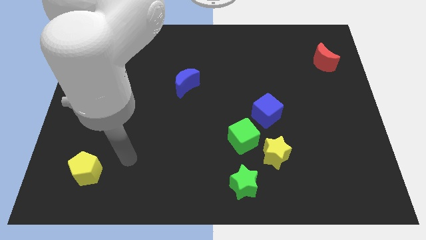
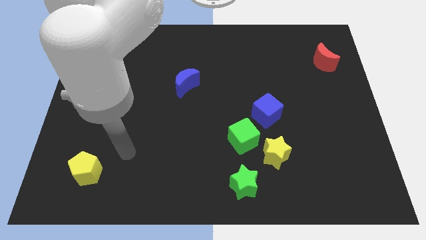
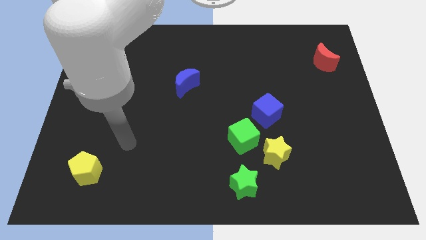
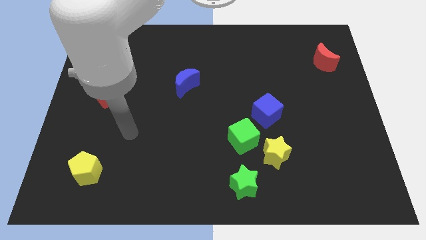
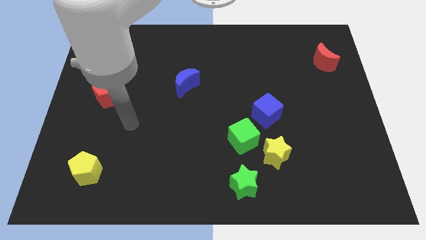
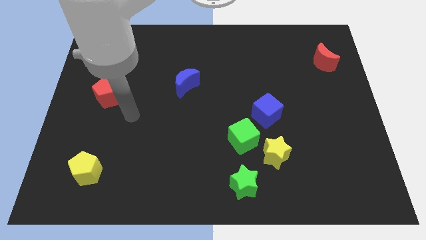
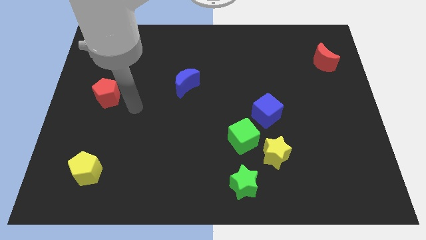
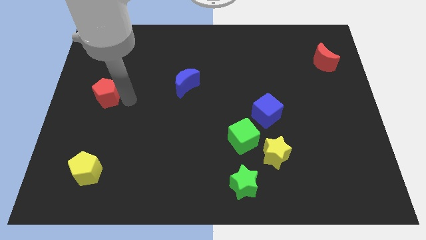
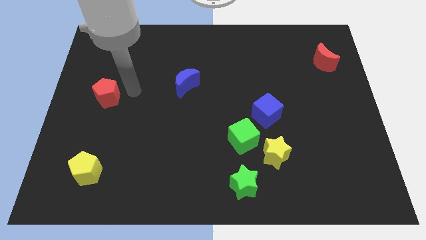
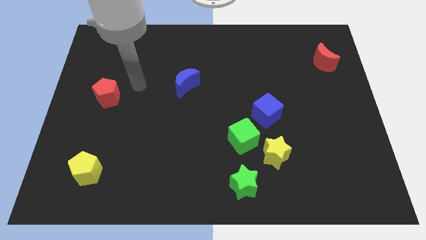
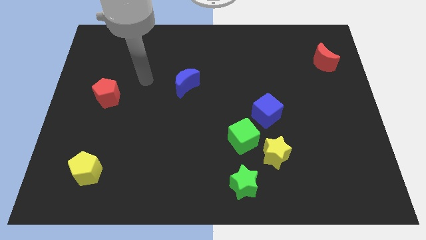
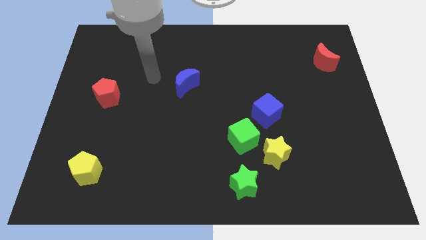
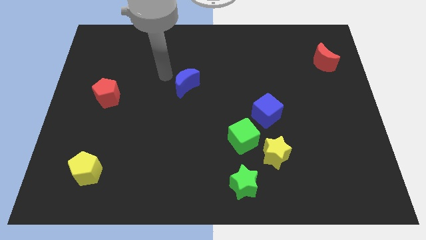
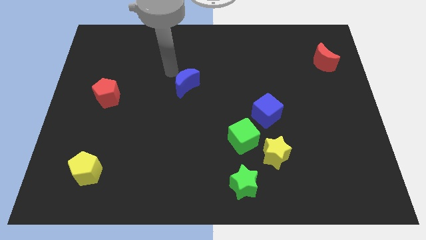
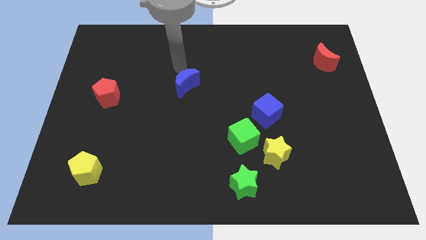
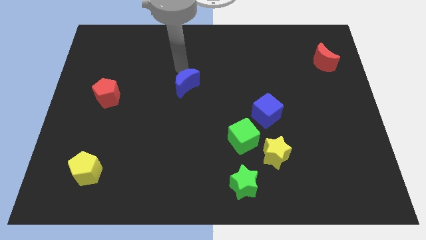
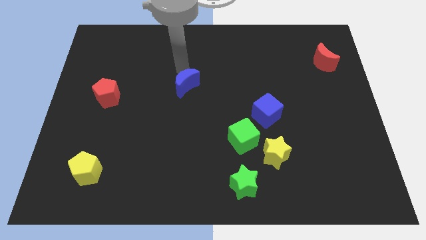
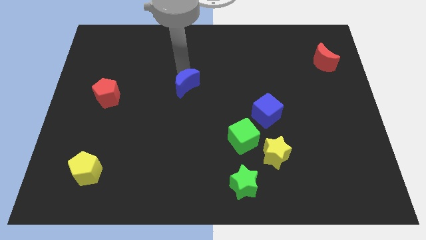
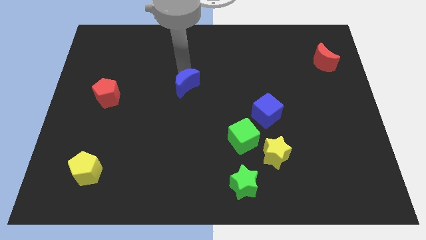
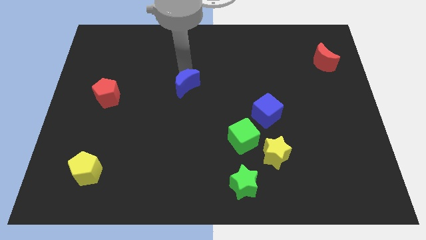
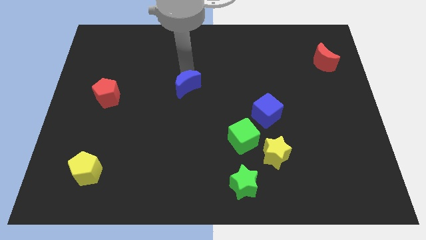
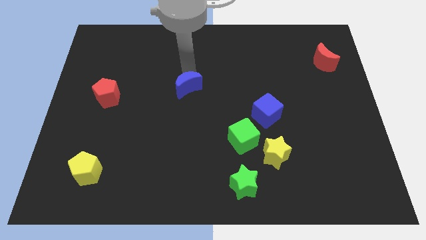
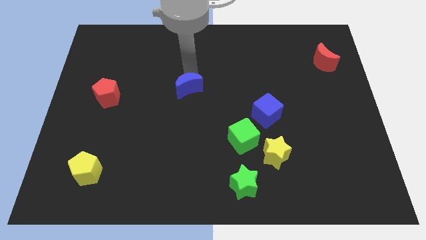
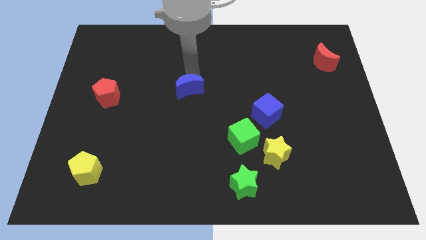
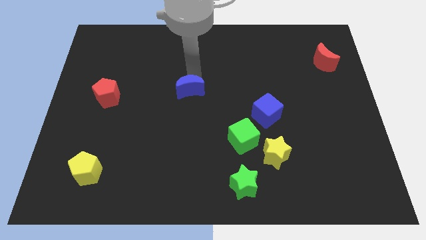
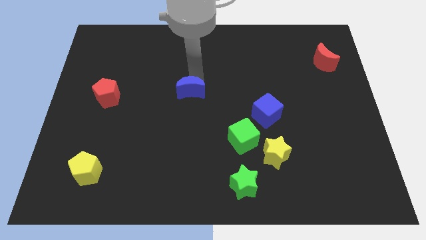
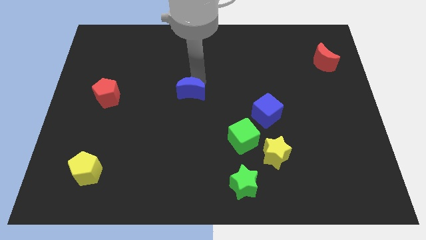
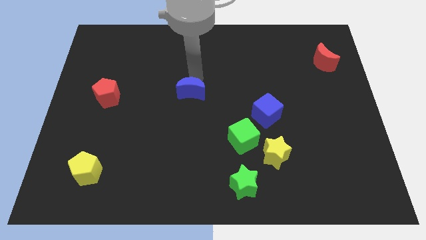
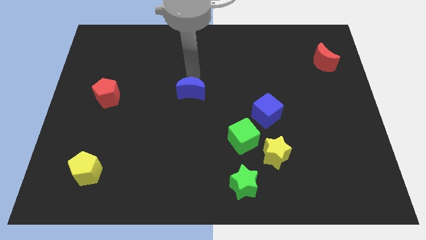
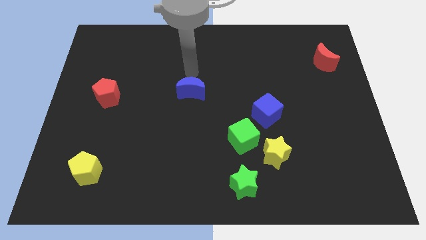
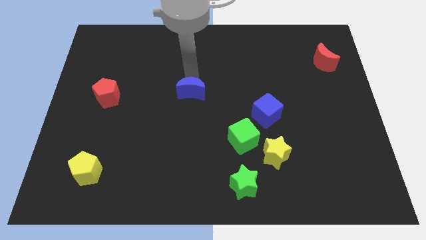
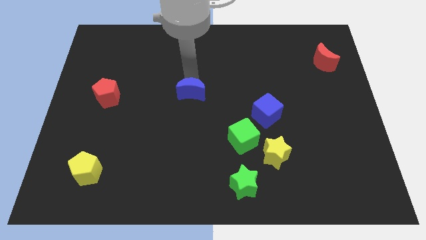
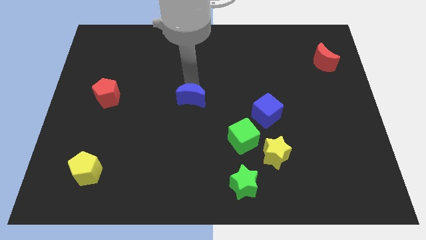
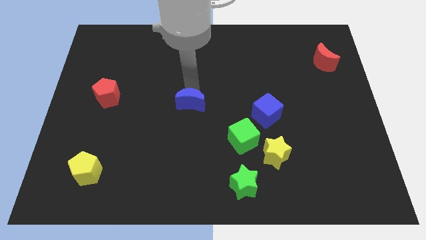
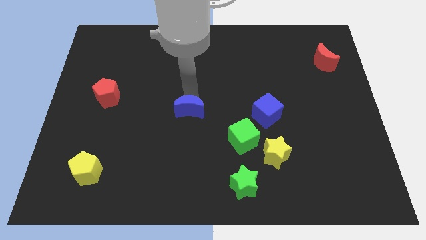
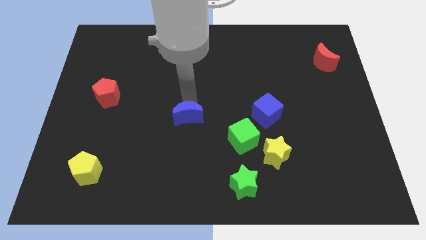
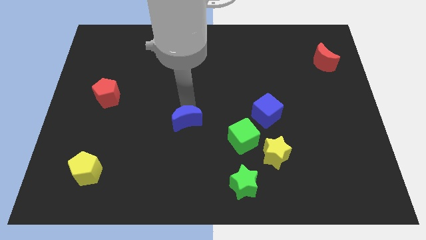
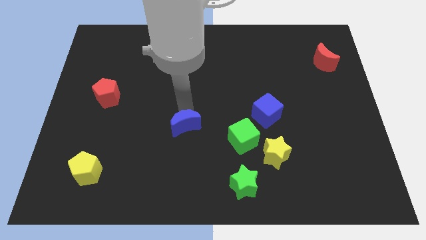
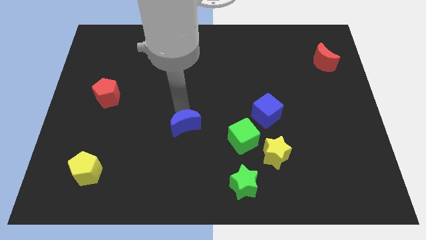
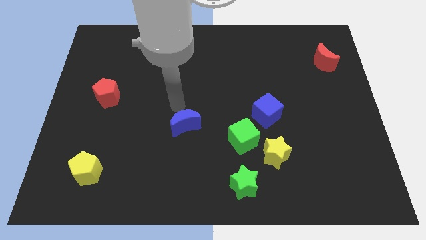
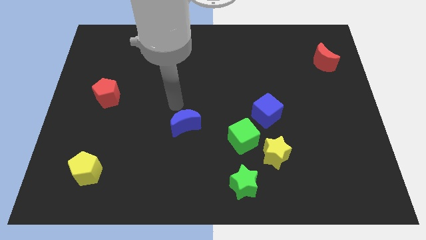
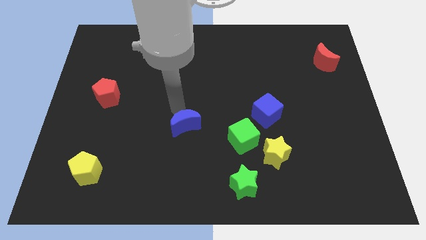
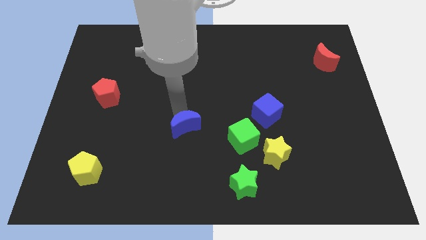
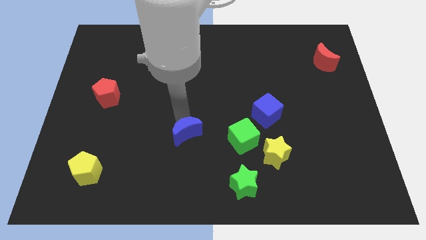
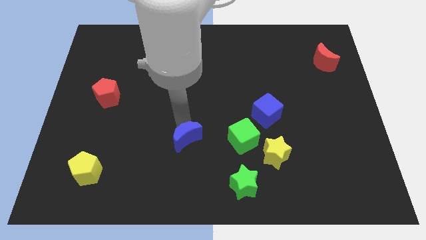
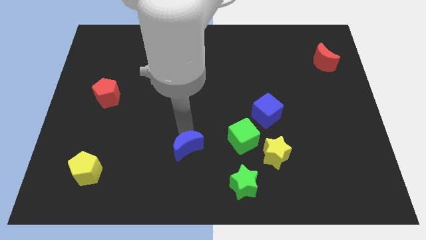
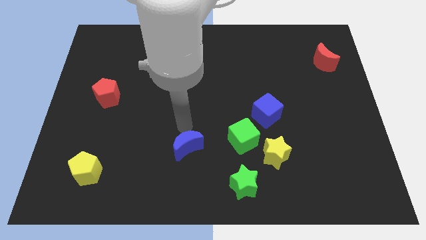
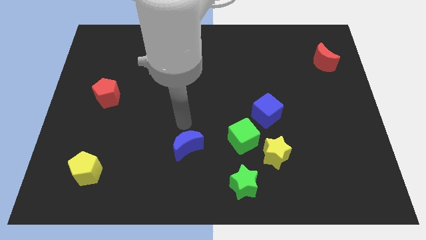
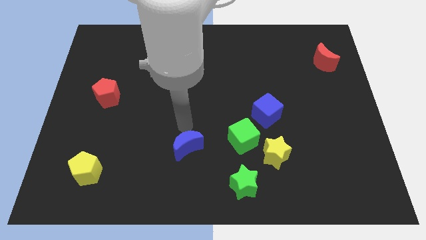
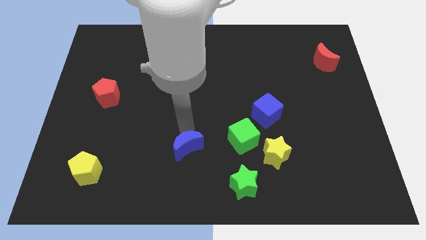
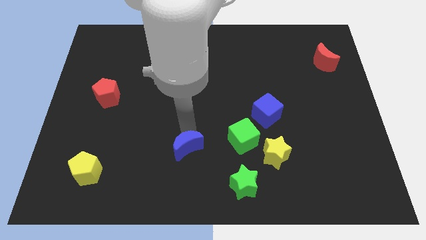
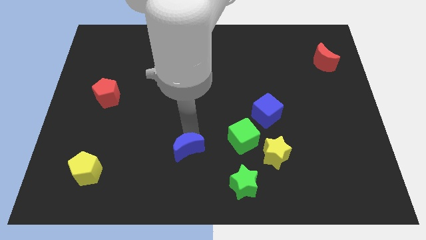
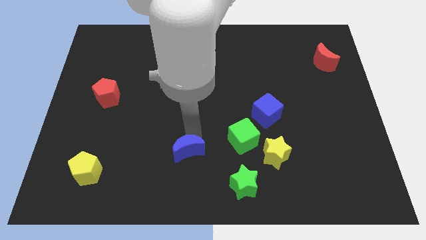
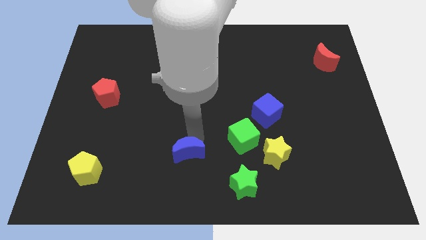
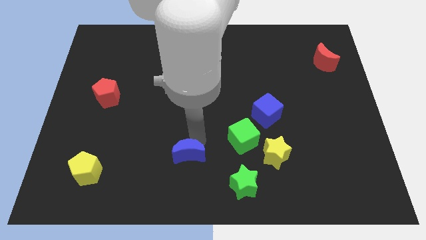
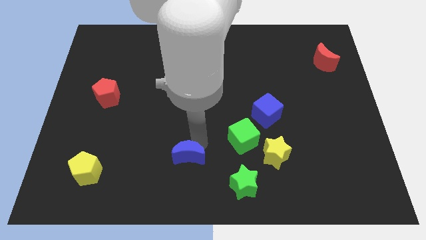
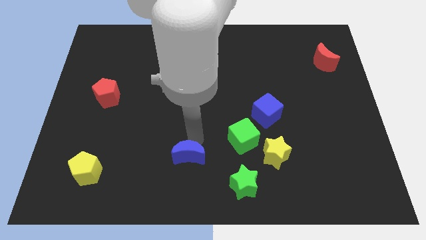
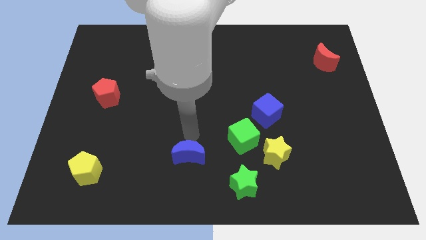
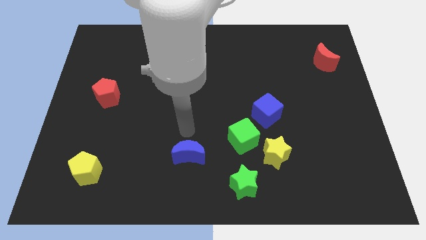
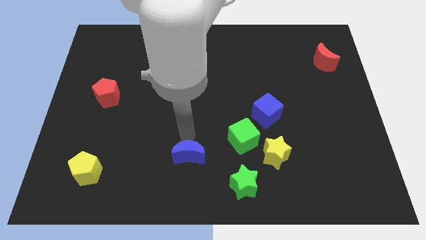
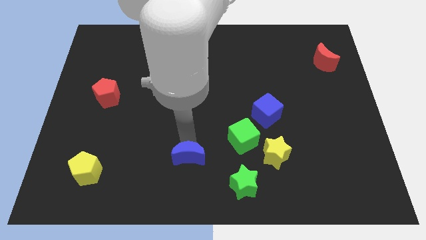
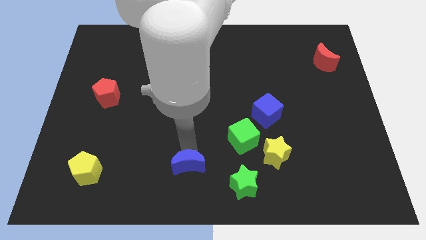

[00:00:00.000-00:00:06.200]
slide the blue moon to the left of the green star

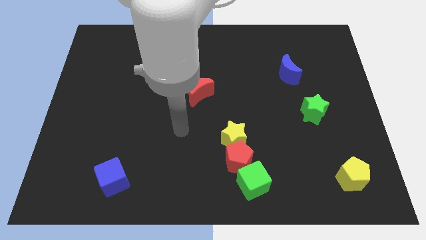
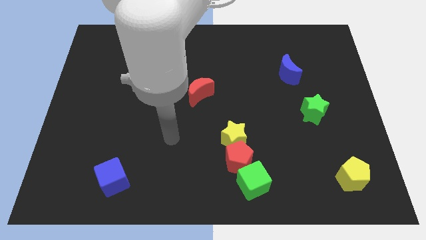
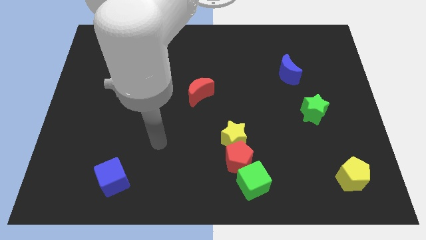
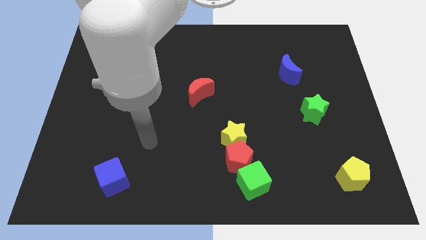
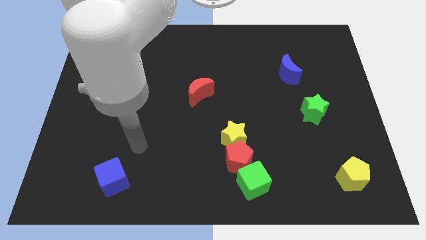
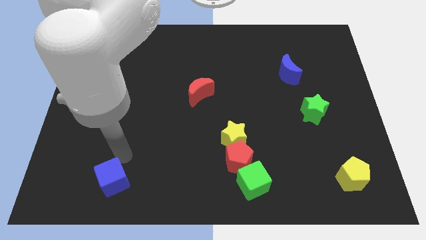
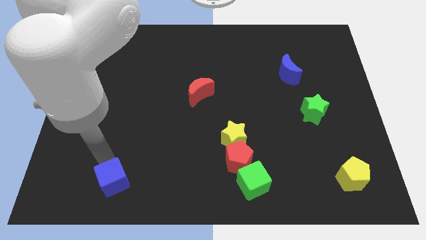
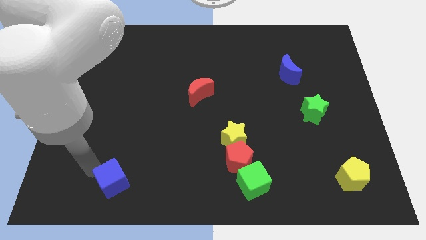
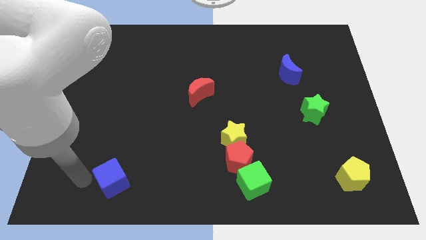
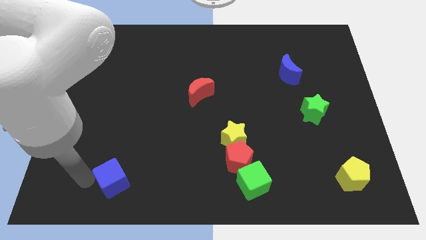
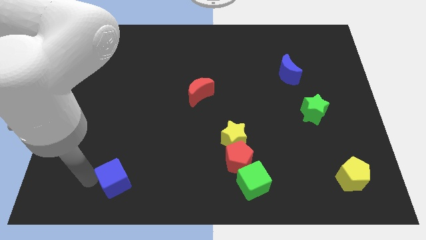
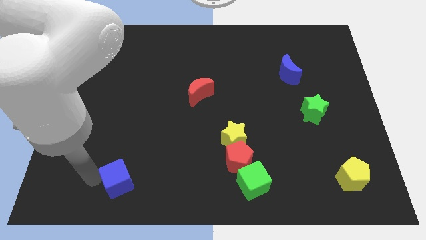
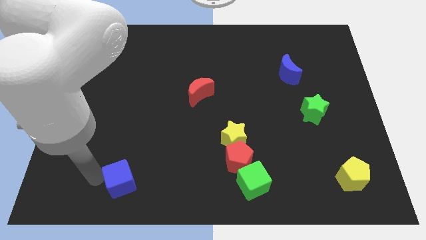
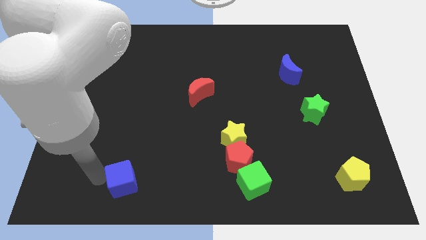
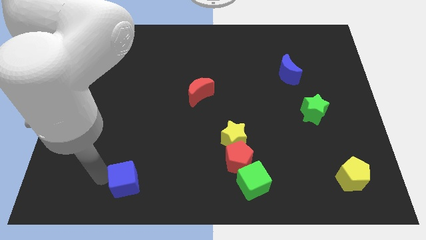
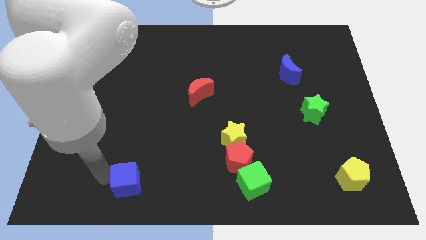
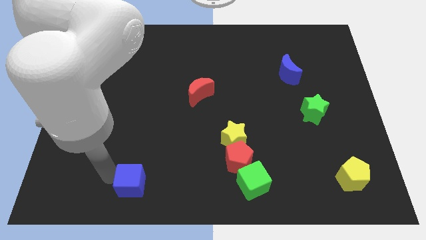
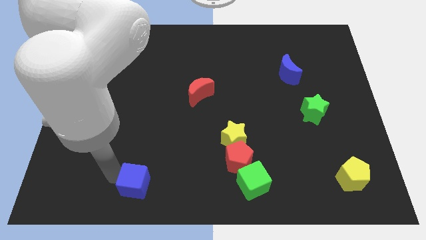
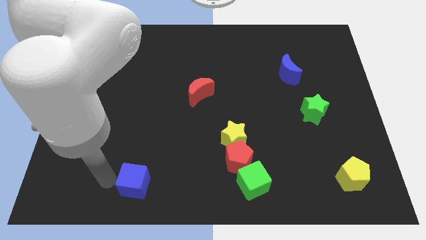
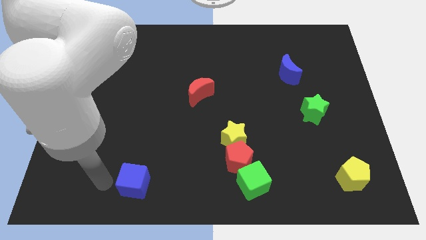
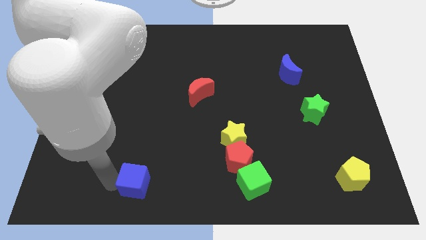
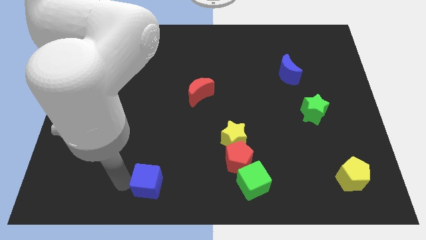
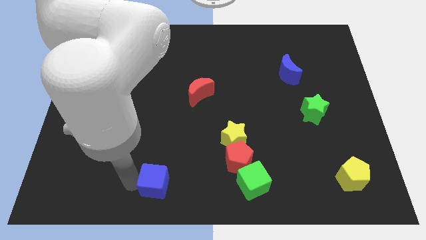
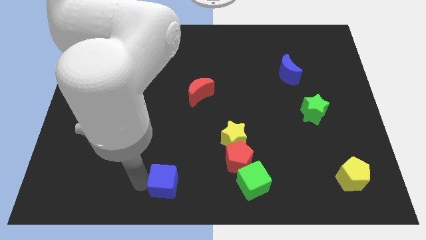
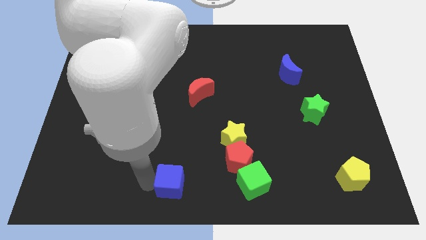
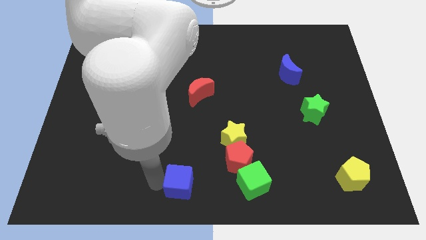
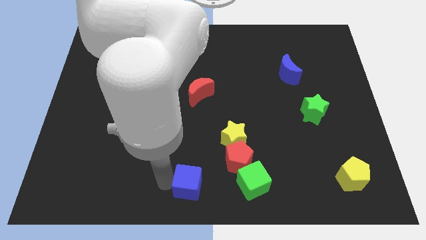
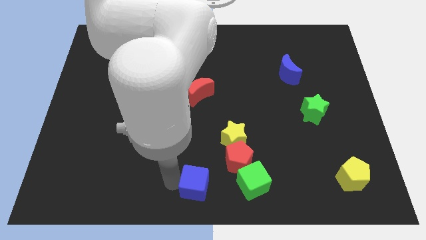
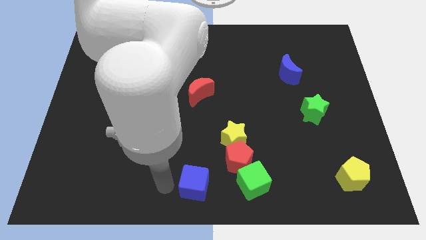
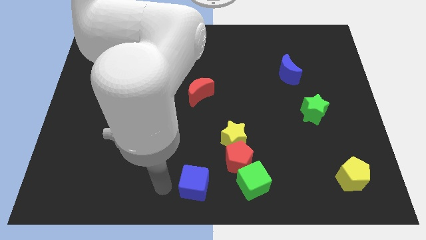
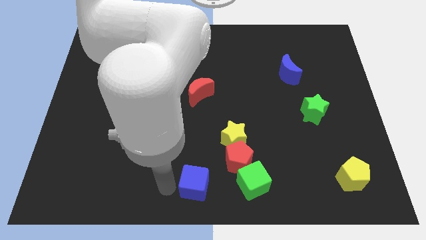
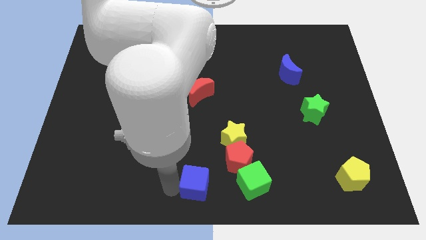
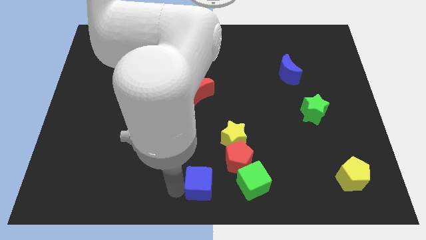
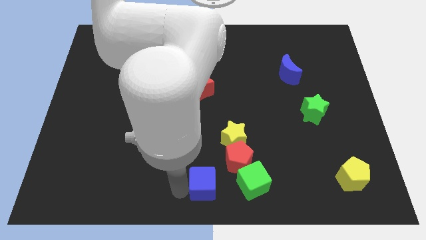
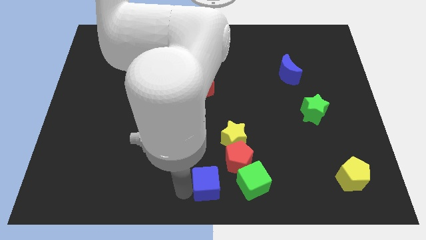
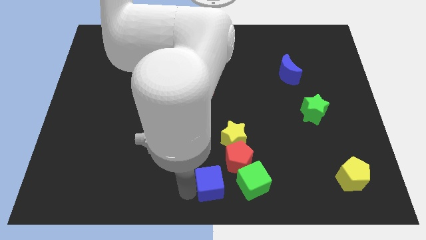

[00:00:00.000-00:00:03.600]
move the blue cube to the bottom side of the yellow star
